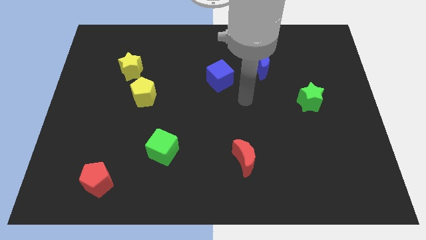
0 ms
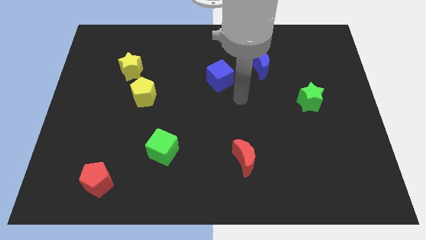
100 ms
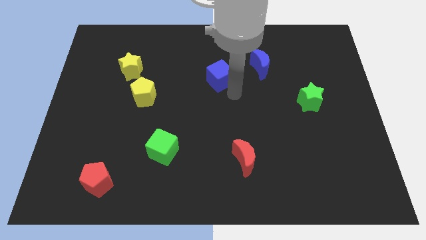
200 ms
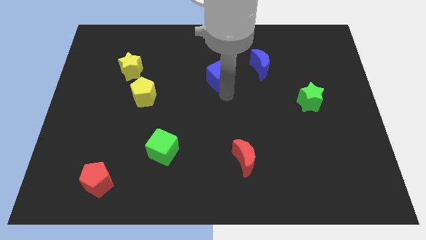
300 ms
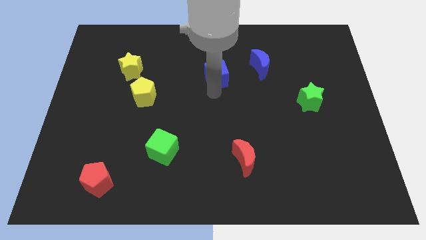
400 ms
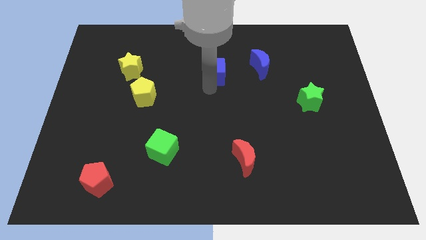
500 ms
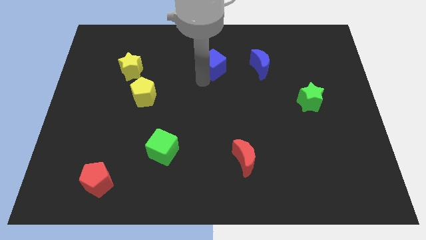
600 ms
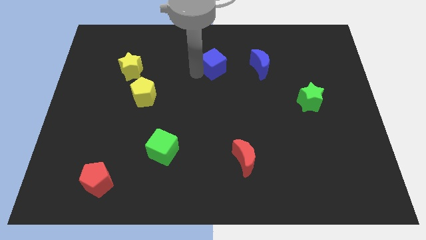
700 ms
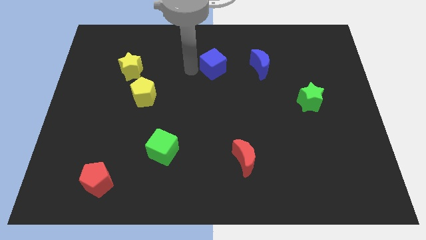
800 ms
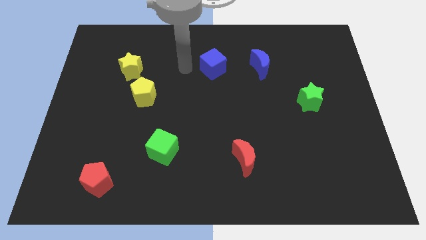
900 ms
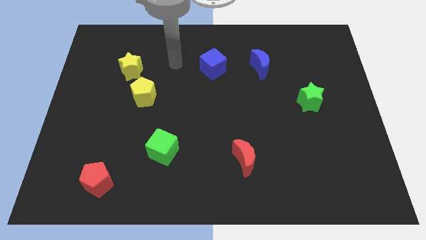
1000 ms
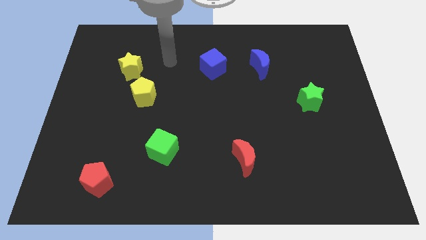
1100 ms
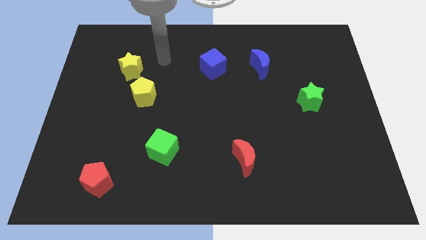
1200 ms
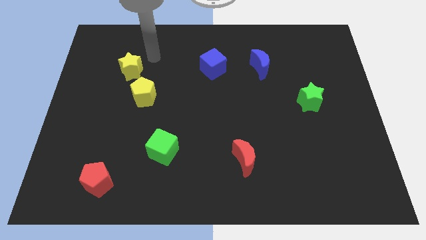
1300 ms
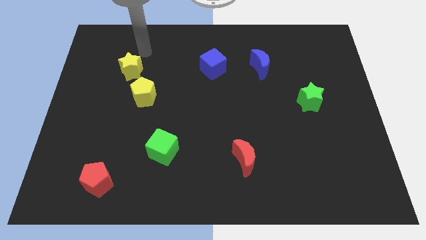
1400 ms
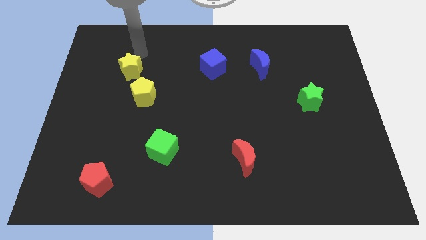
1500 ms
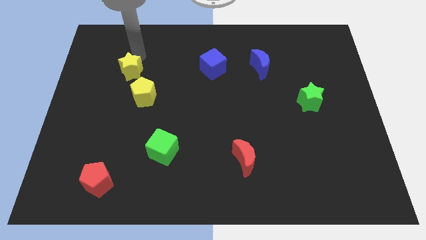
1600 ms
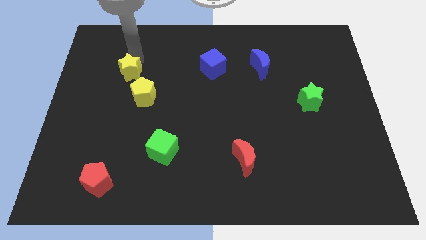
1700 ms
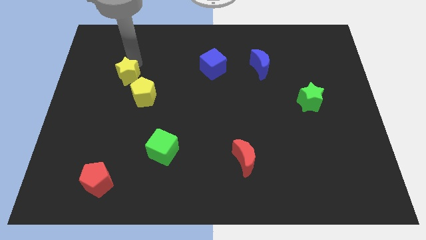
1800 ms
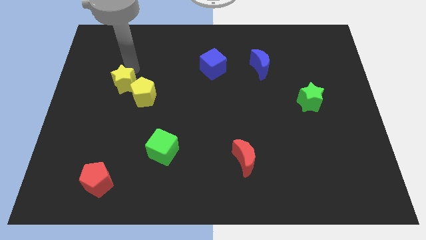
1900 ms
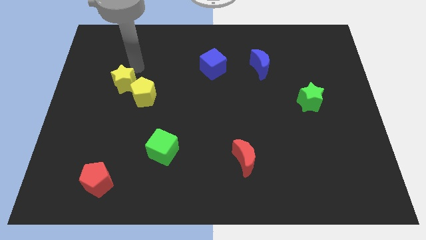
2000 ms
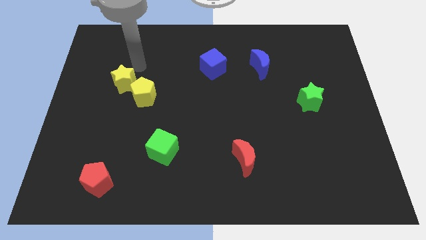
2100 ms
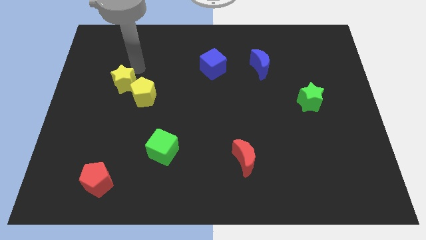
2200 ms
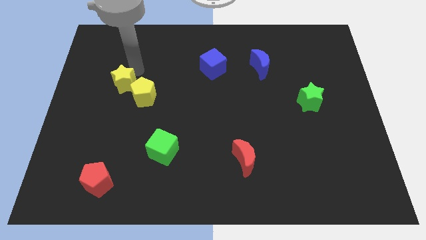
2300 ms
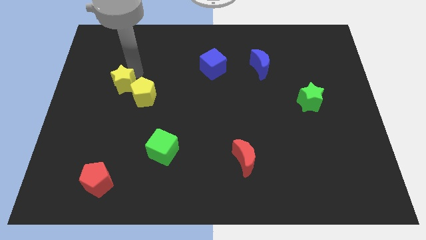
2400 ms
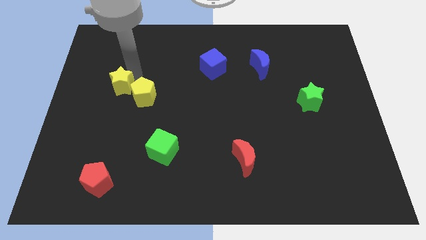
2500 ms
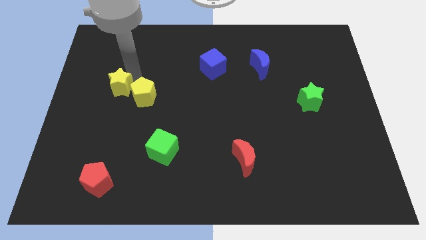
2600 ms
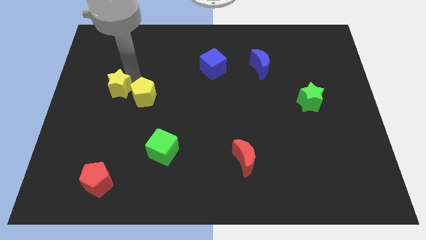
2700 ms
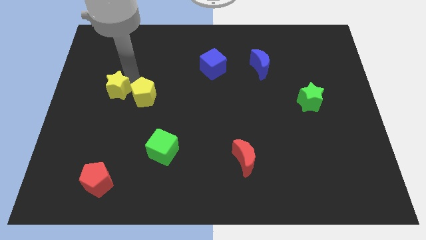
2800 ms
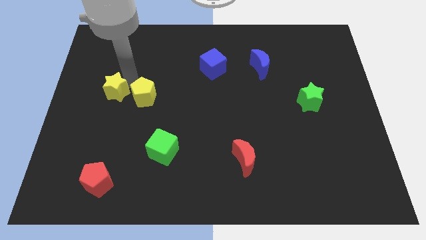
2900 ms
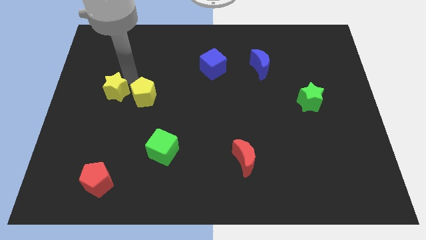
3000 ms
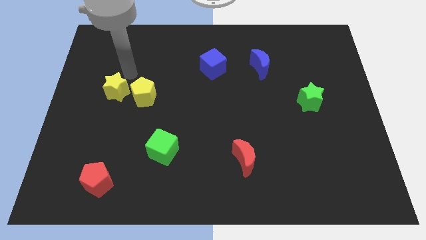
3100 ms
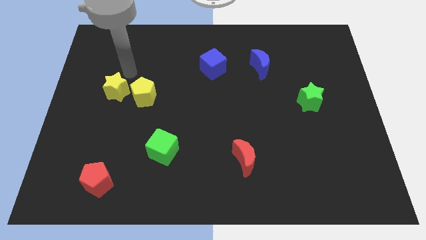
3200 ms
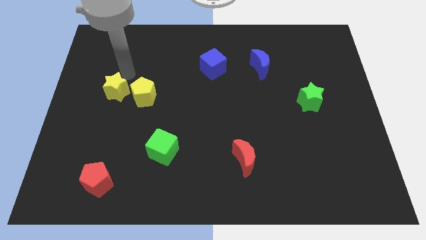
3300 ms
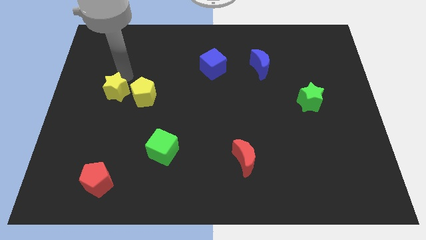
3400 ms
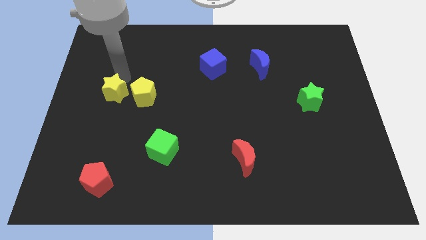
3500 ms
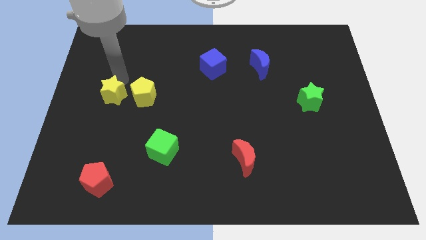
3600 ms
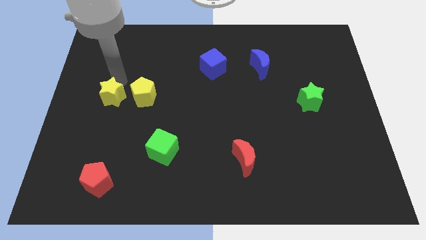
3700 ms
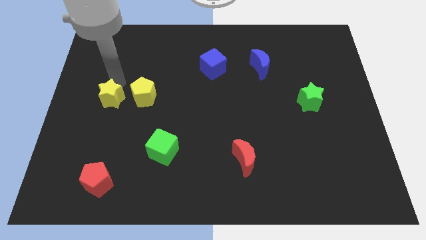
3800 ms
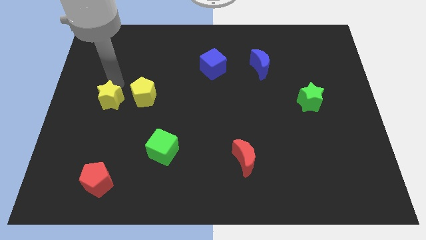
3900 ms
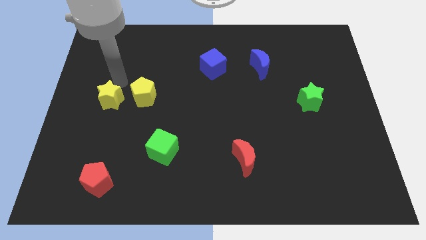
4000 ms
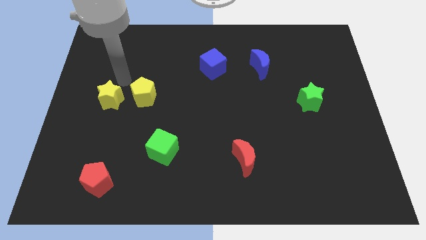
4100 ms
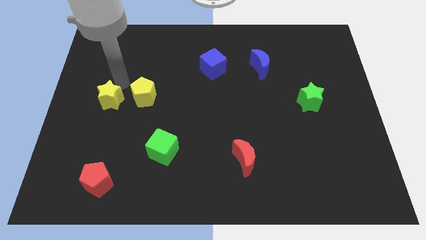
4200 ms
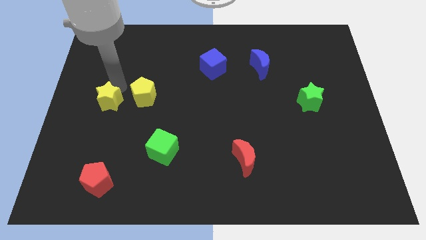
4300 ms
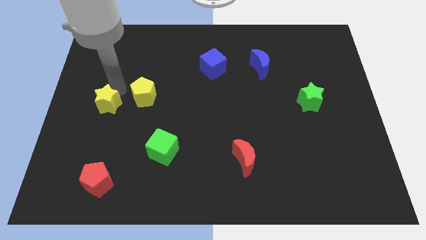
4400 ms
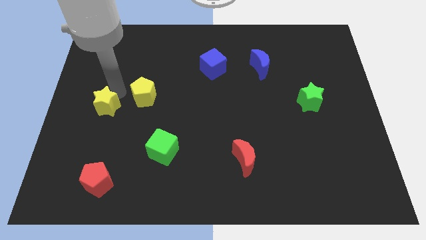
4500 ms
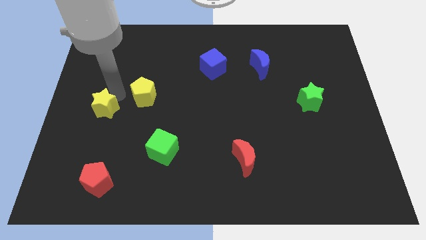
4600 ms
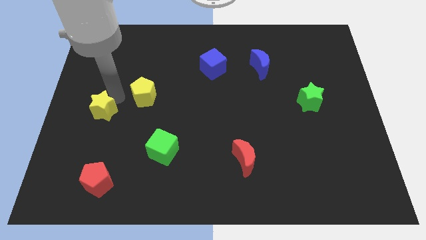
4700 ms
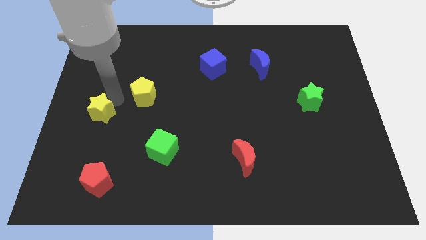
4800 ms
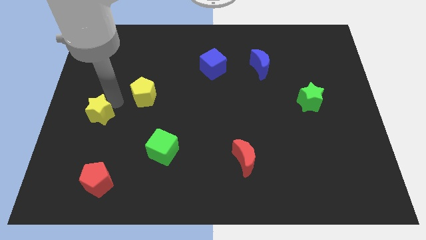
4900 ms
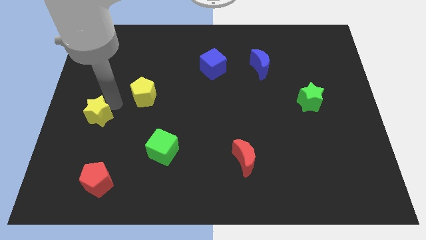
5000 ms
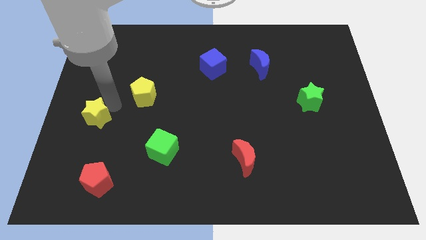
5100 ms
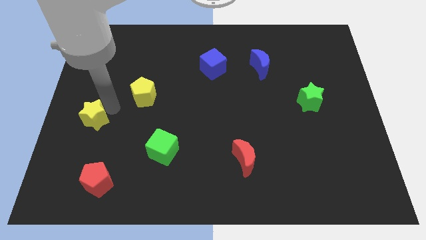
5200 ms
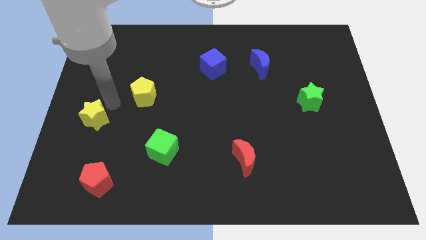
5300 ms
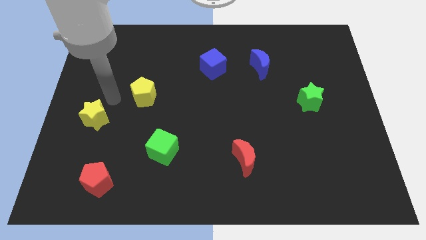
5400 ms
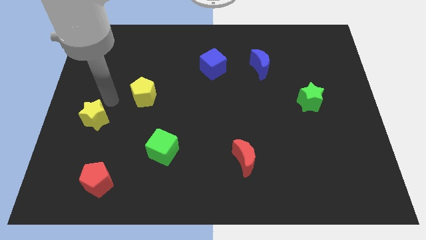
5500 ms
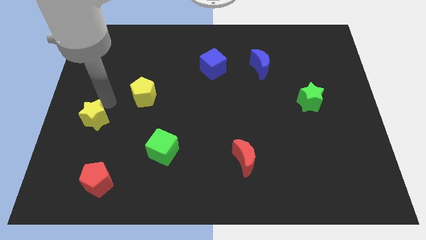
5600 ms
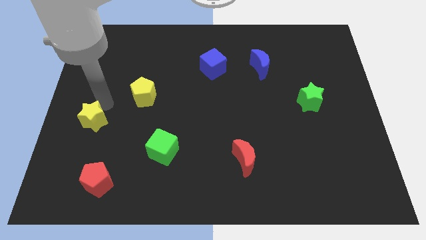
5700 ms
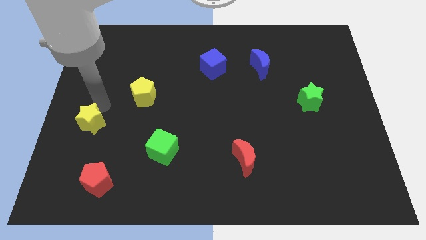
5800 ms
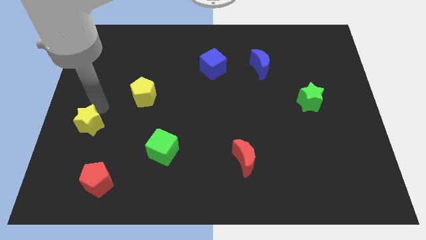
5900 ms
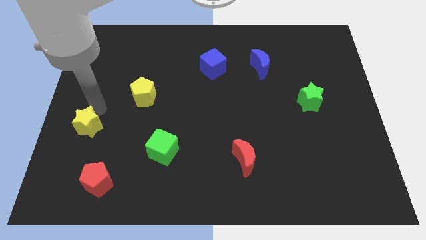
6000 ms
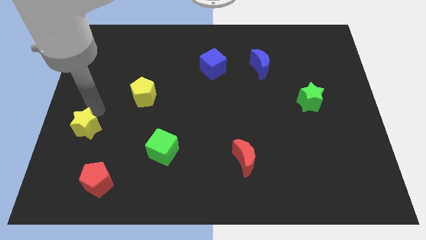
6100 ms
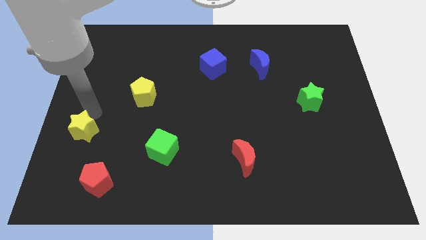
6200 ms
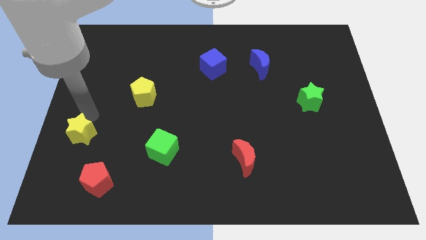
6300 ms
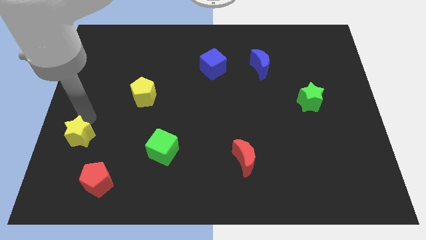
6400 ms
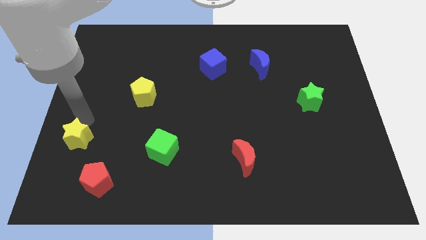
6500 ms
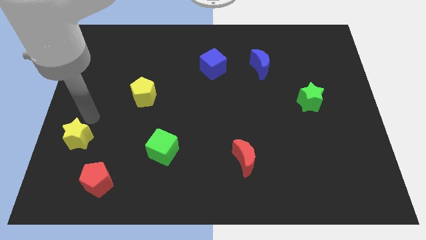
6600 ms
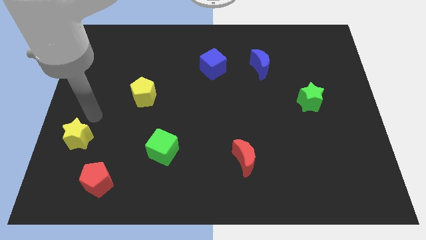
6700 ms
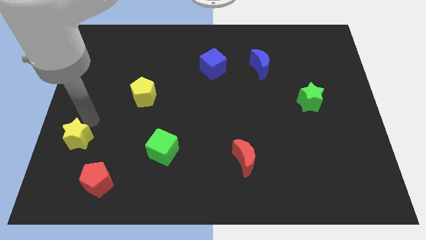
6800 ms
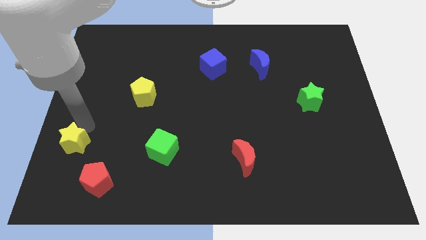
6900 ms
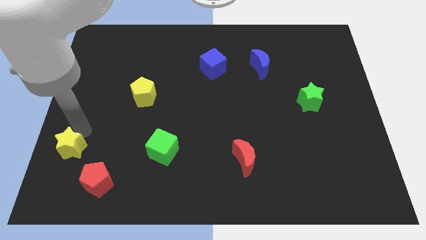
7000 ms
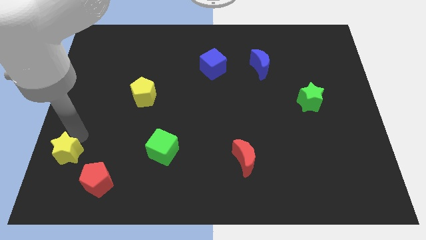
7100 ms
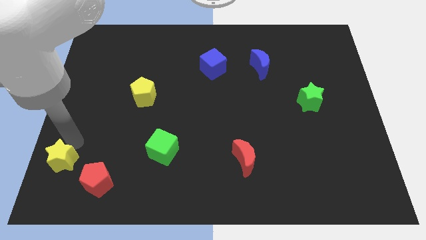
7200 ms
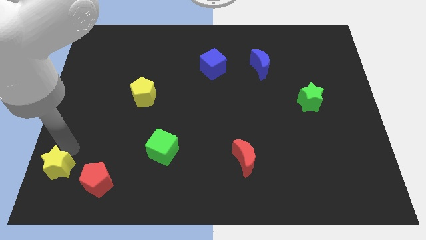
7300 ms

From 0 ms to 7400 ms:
push the yellow star to the bottom left
